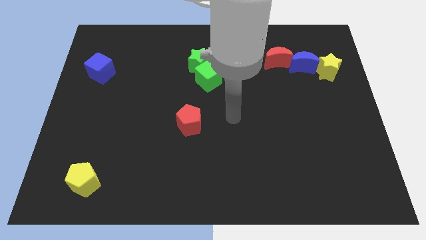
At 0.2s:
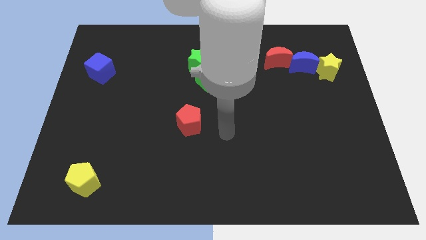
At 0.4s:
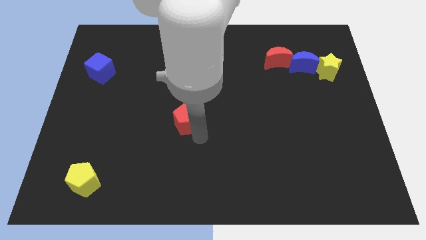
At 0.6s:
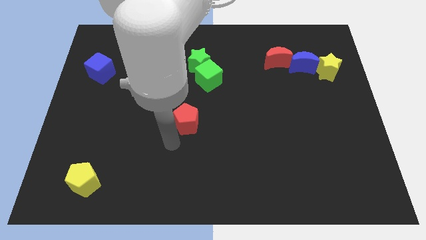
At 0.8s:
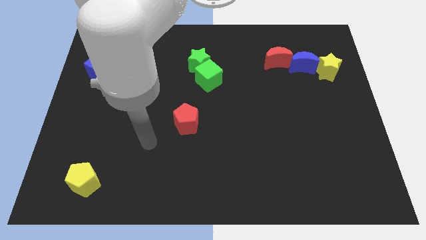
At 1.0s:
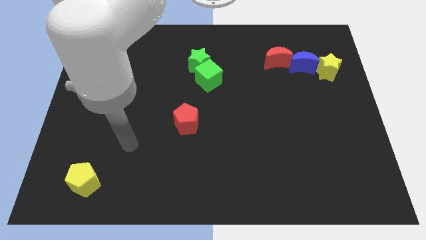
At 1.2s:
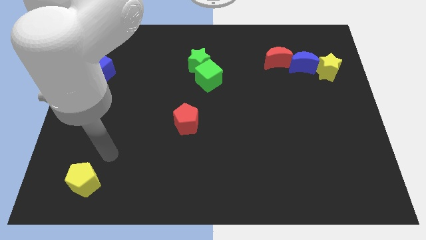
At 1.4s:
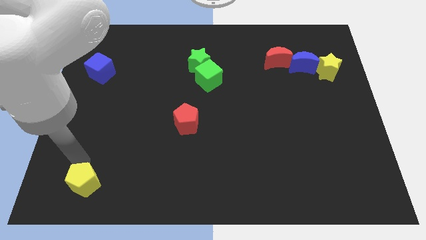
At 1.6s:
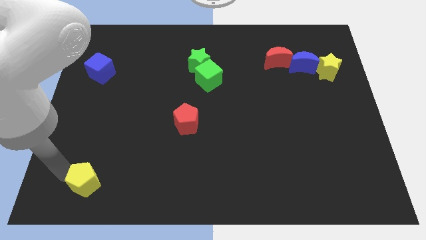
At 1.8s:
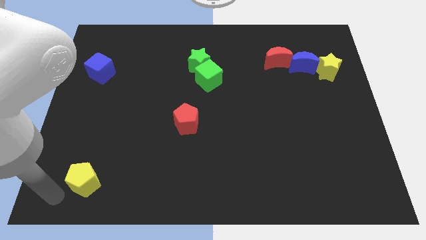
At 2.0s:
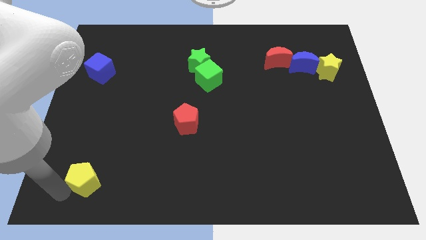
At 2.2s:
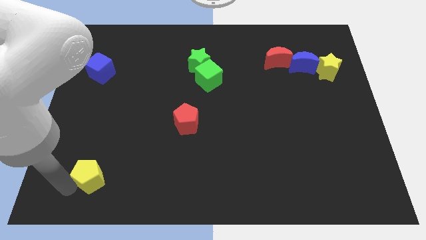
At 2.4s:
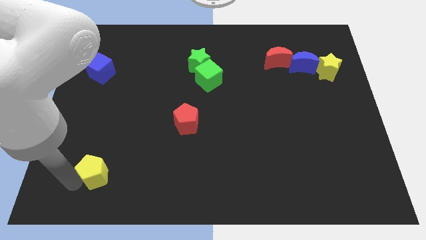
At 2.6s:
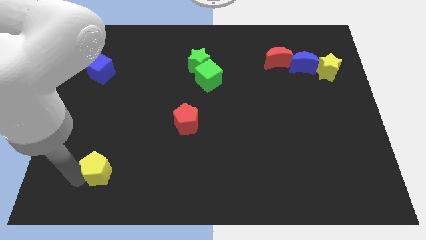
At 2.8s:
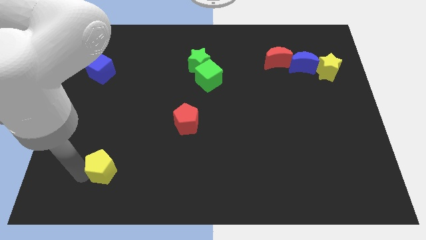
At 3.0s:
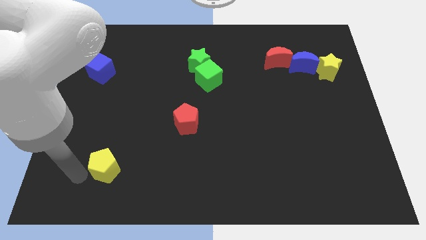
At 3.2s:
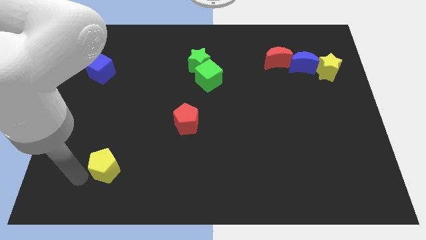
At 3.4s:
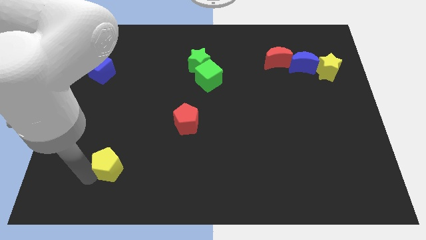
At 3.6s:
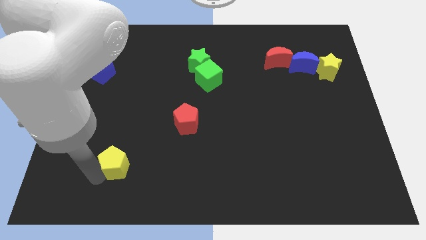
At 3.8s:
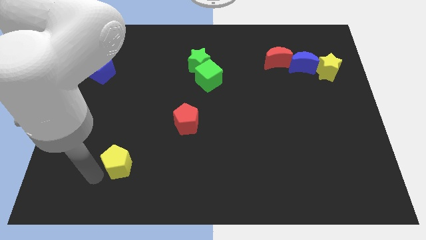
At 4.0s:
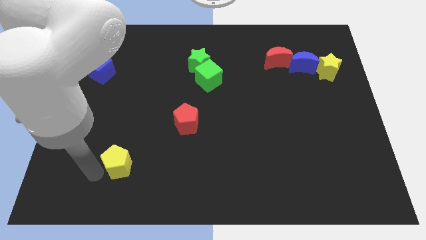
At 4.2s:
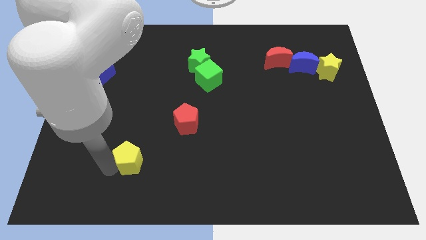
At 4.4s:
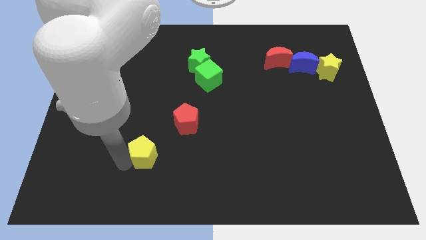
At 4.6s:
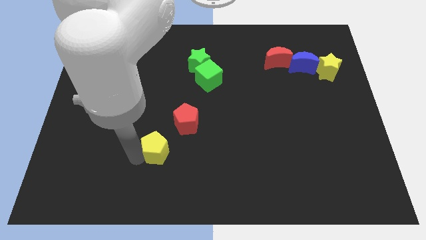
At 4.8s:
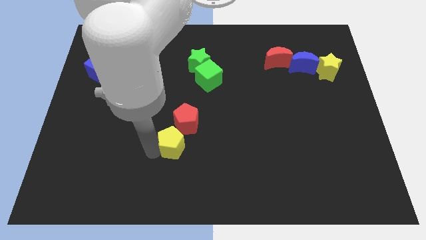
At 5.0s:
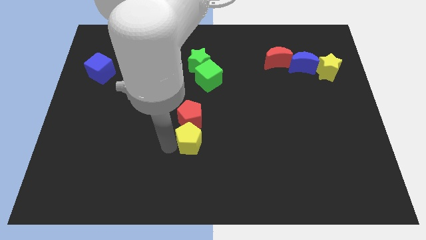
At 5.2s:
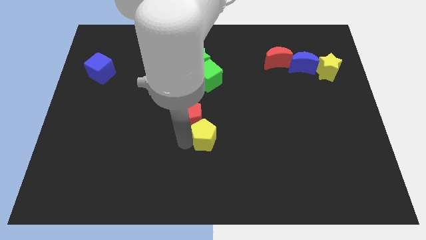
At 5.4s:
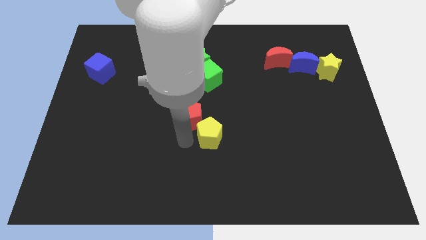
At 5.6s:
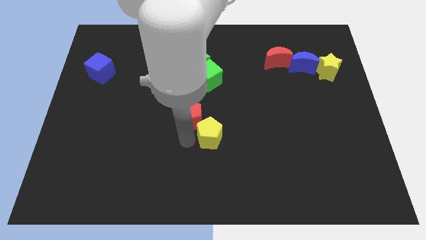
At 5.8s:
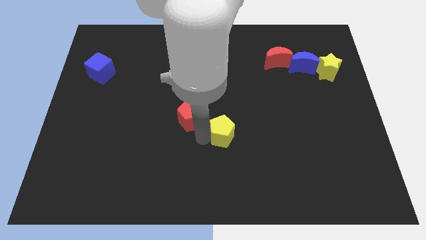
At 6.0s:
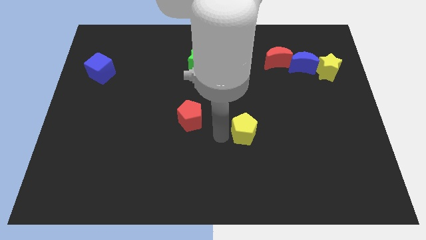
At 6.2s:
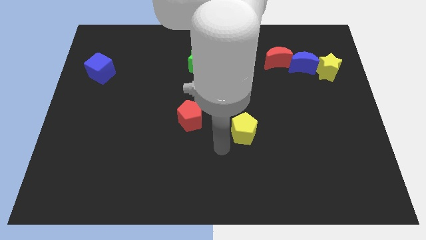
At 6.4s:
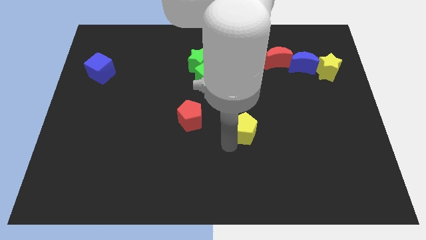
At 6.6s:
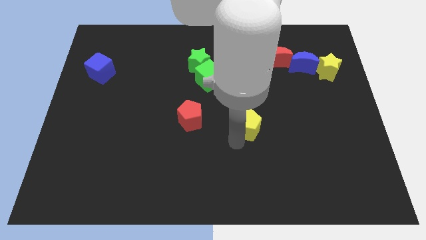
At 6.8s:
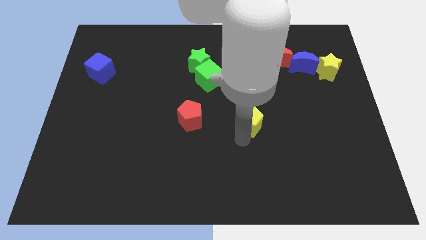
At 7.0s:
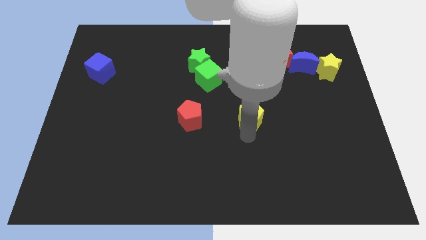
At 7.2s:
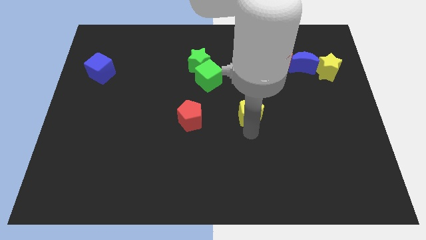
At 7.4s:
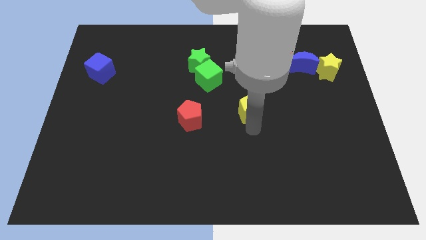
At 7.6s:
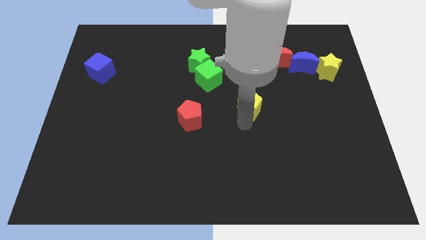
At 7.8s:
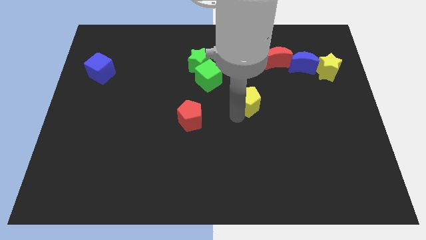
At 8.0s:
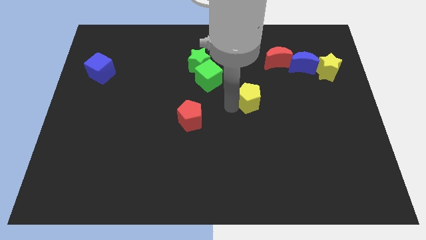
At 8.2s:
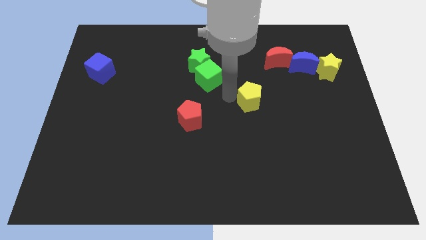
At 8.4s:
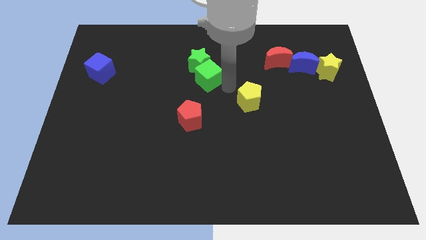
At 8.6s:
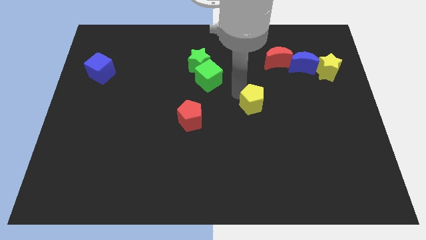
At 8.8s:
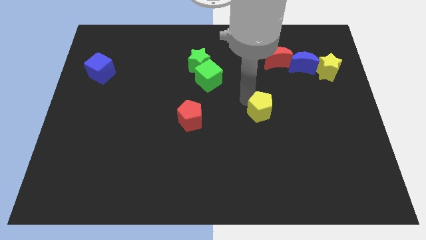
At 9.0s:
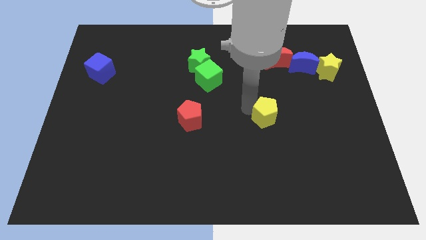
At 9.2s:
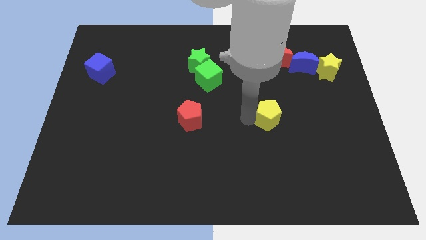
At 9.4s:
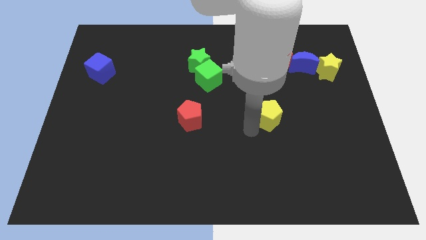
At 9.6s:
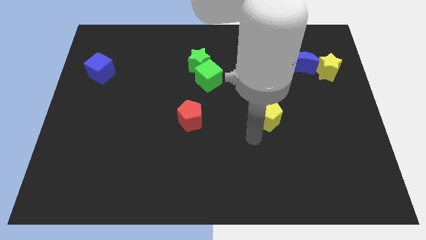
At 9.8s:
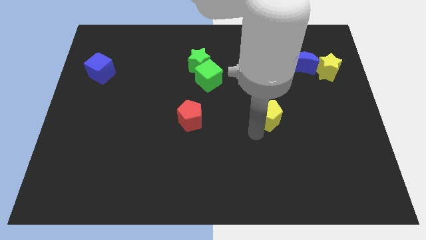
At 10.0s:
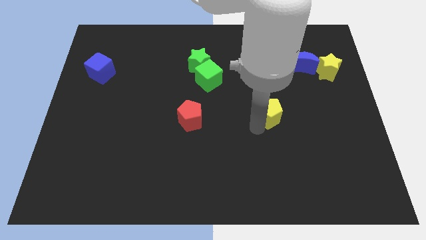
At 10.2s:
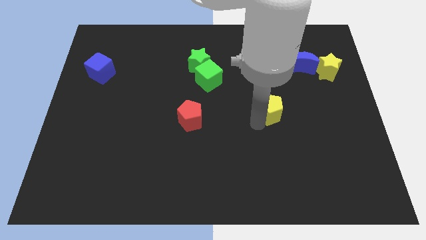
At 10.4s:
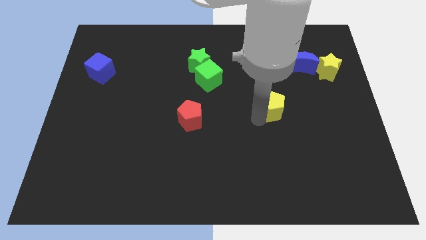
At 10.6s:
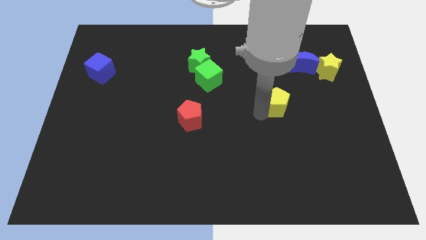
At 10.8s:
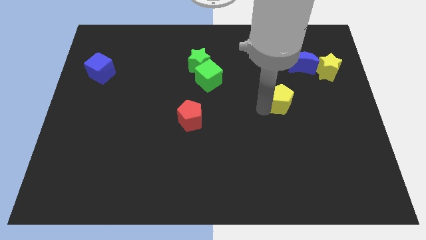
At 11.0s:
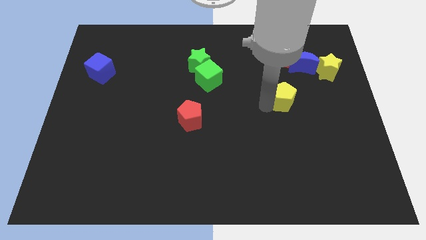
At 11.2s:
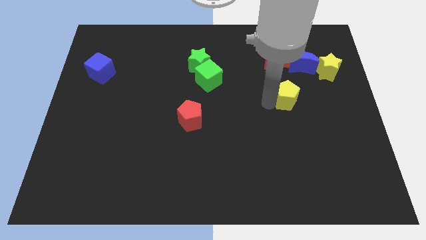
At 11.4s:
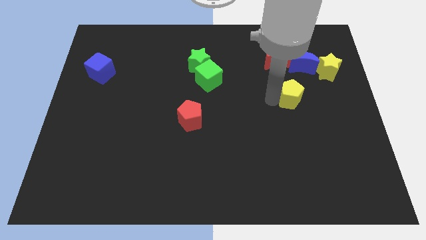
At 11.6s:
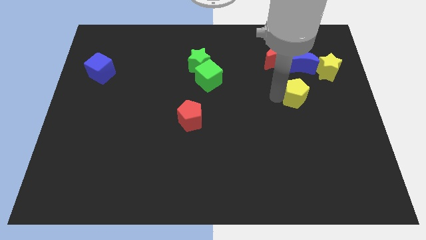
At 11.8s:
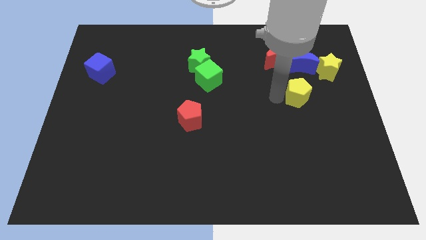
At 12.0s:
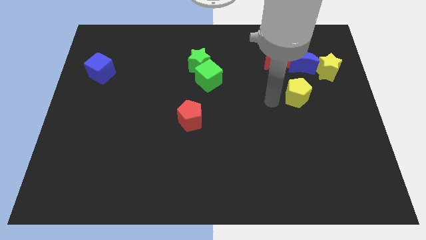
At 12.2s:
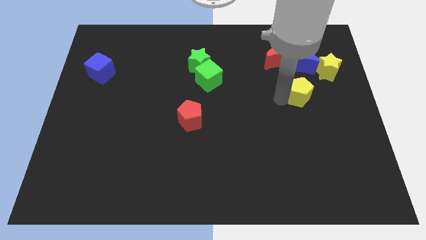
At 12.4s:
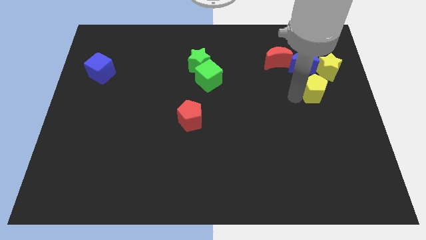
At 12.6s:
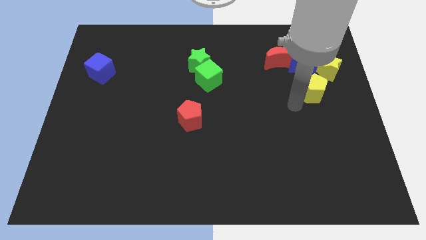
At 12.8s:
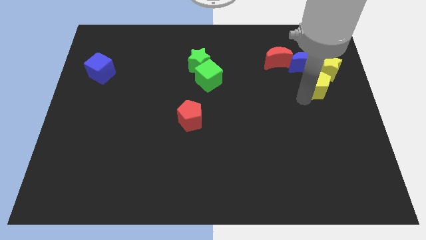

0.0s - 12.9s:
slide the yellow pentagon to the bottom right side of the blue moon

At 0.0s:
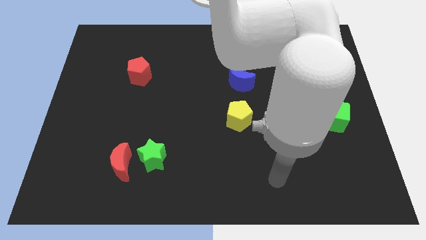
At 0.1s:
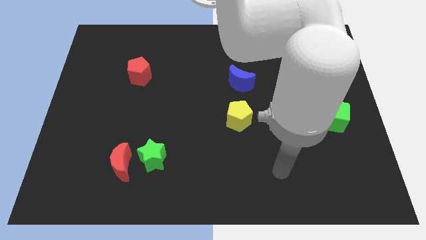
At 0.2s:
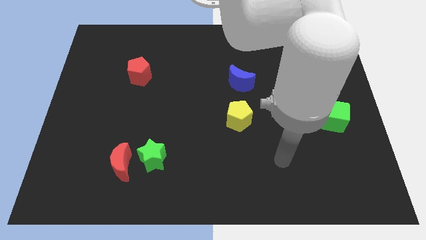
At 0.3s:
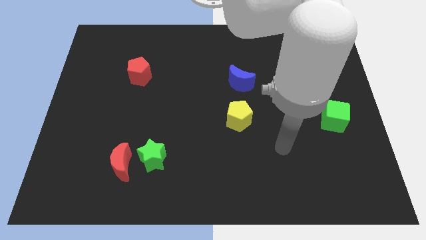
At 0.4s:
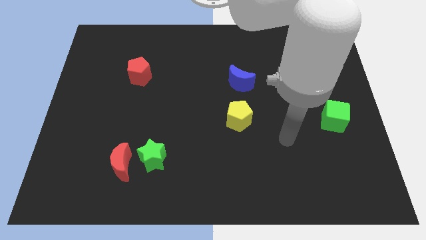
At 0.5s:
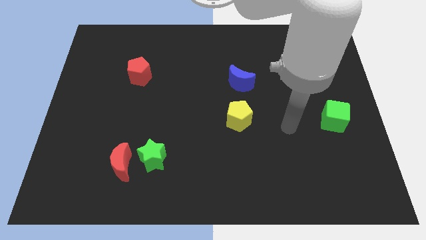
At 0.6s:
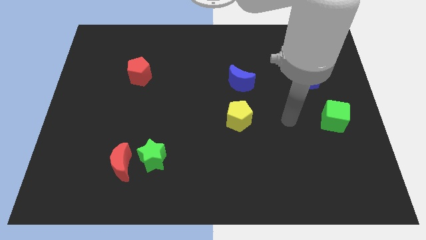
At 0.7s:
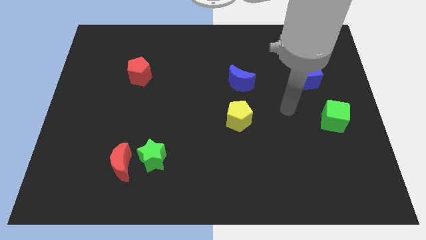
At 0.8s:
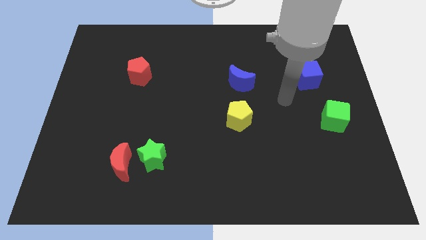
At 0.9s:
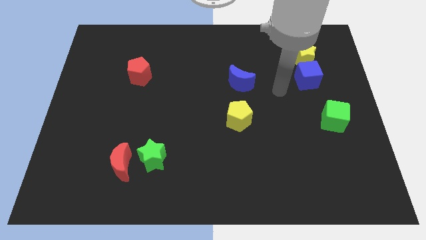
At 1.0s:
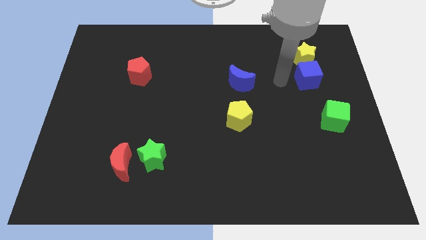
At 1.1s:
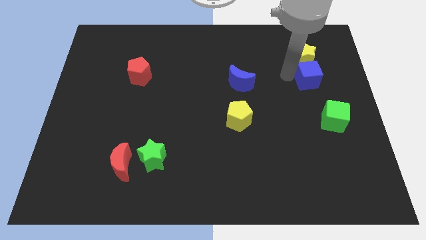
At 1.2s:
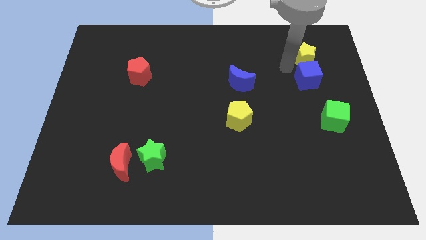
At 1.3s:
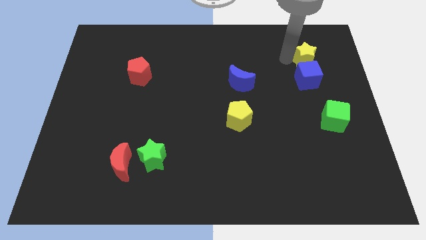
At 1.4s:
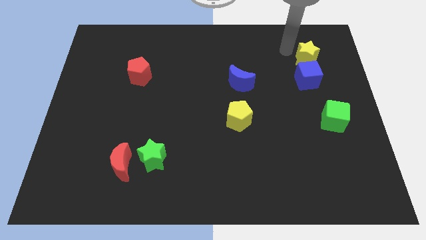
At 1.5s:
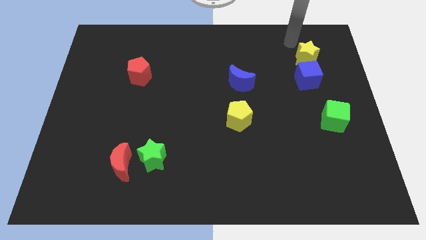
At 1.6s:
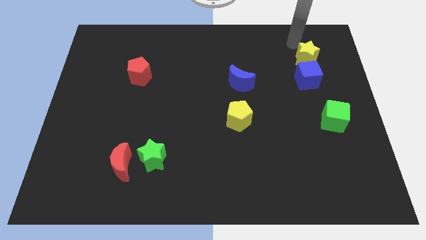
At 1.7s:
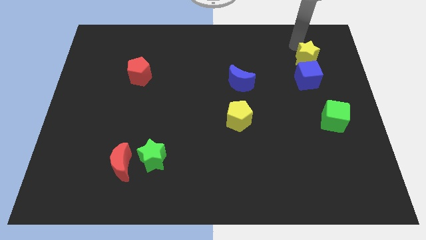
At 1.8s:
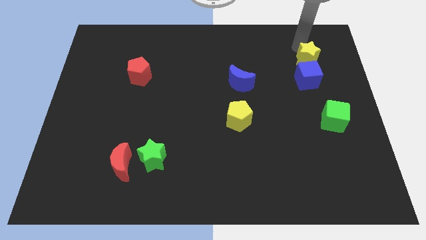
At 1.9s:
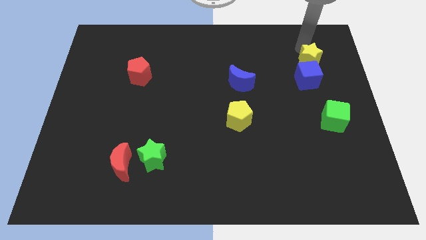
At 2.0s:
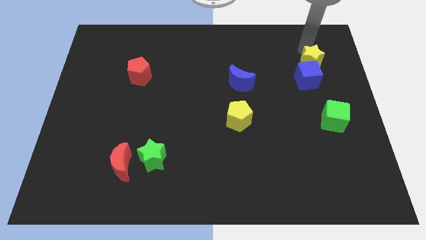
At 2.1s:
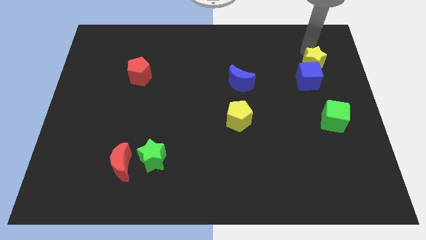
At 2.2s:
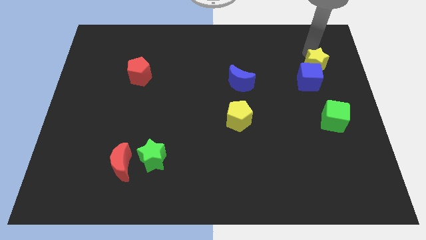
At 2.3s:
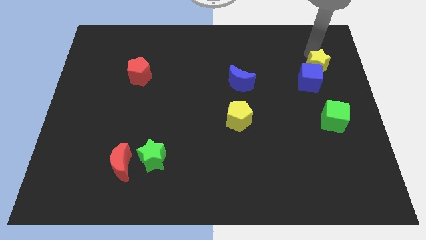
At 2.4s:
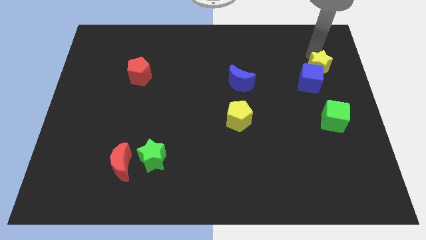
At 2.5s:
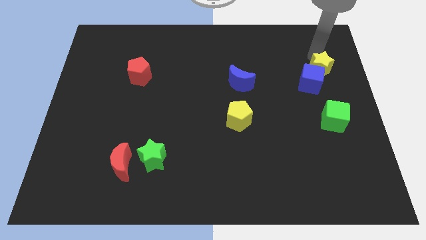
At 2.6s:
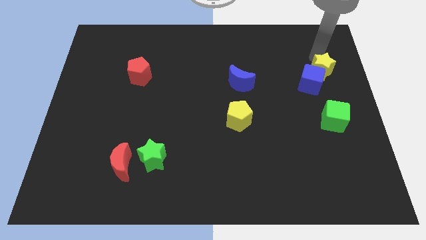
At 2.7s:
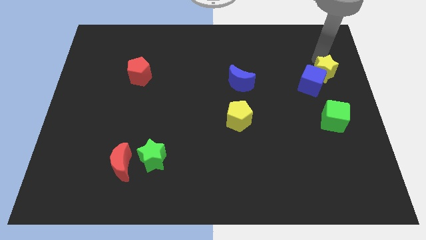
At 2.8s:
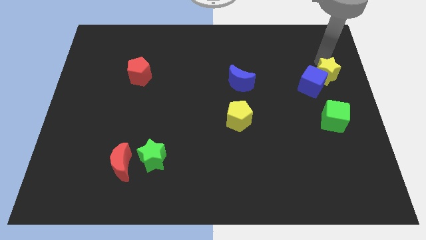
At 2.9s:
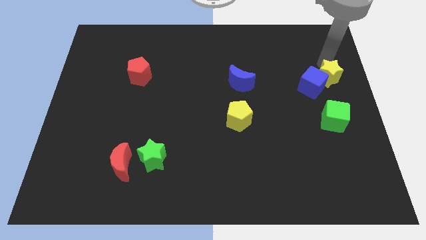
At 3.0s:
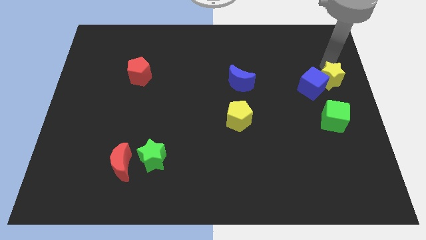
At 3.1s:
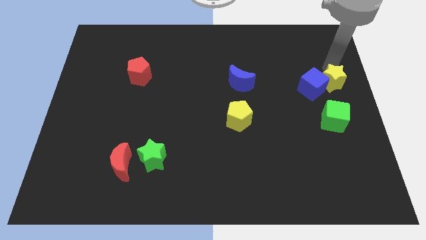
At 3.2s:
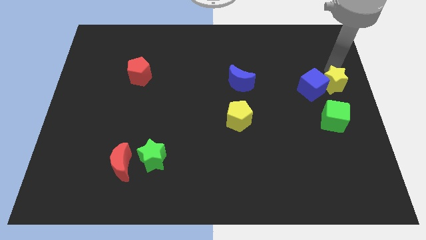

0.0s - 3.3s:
slide the yellow star to the bottom right side of the blue cube
